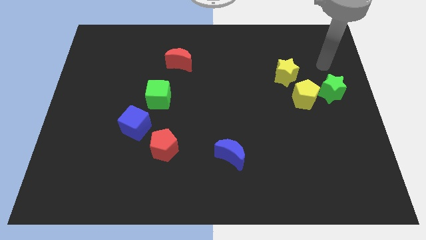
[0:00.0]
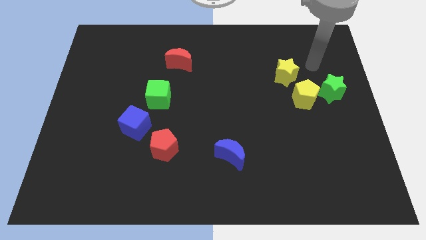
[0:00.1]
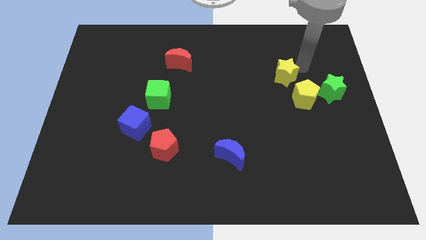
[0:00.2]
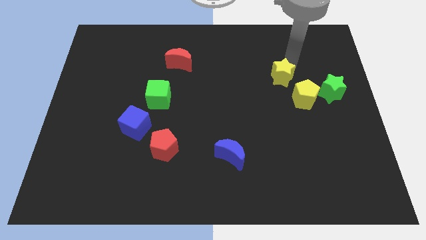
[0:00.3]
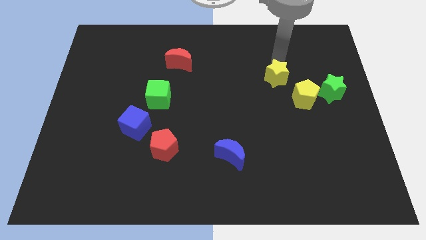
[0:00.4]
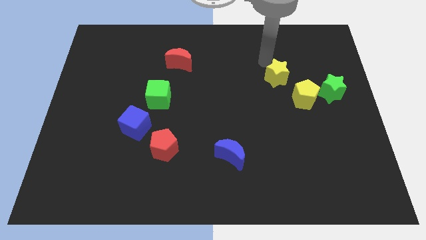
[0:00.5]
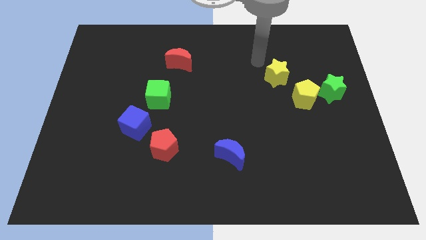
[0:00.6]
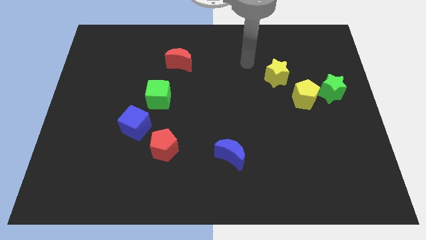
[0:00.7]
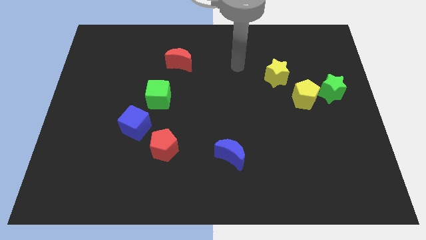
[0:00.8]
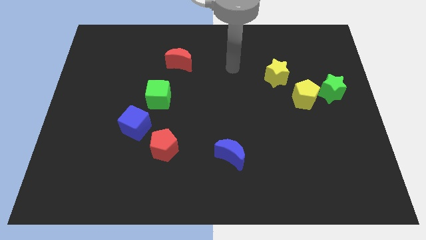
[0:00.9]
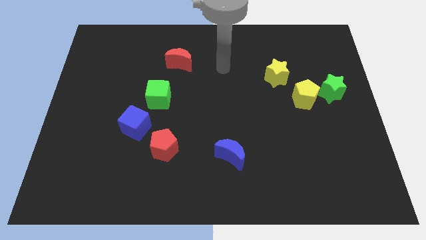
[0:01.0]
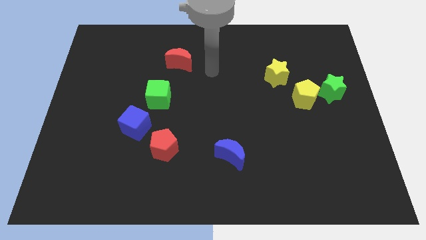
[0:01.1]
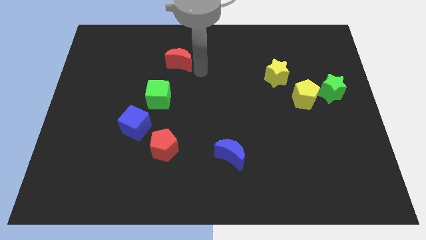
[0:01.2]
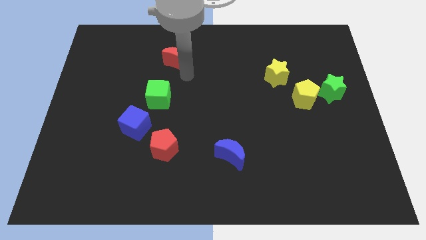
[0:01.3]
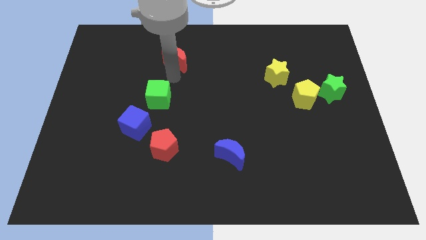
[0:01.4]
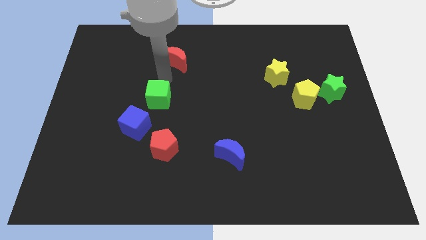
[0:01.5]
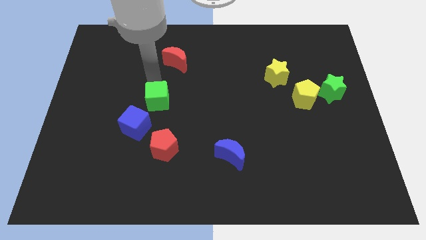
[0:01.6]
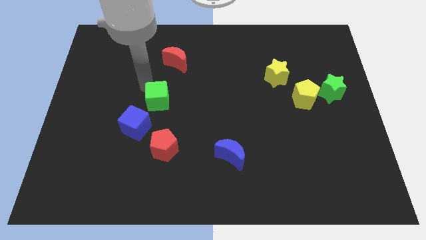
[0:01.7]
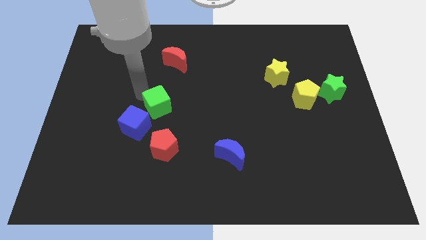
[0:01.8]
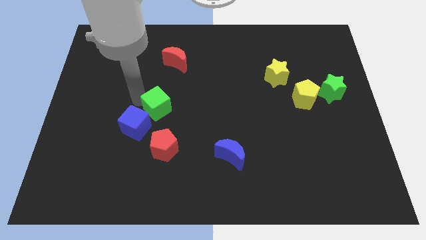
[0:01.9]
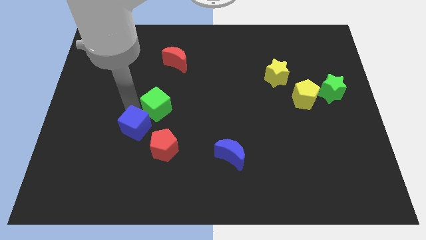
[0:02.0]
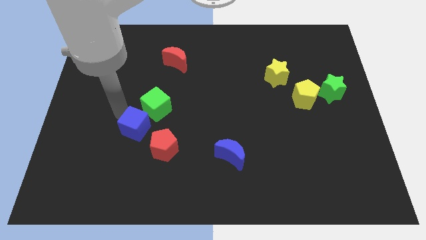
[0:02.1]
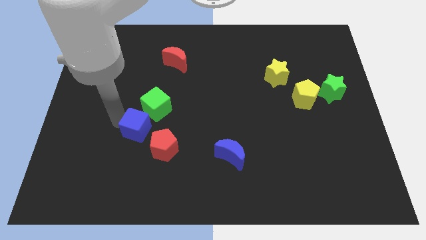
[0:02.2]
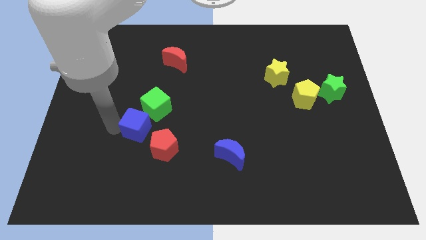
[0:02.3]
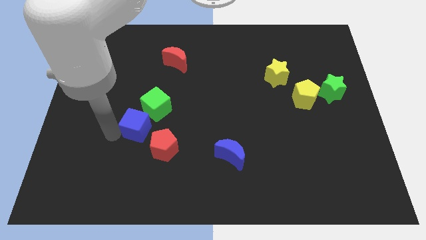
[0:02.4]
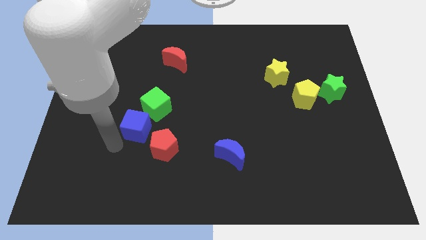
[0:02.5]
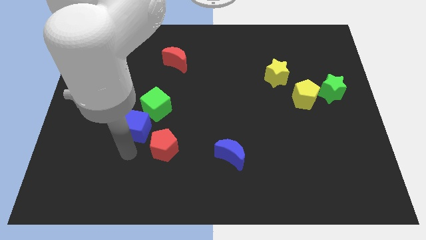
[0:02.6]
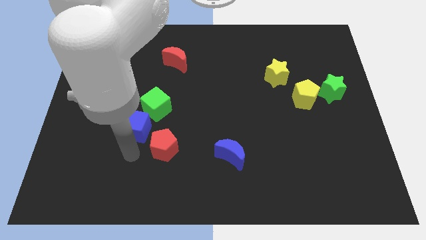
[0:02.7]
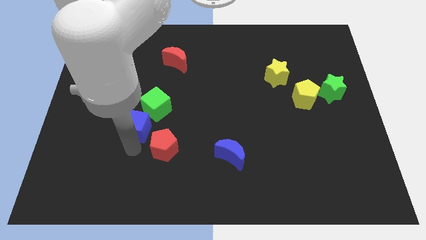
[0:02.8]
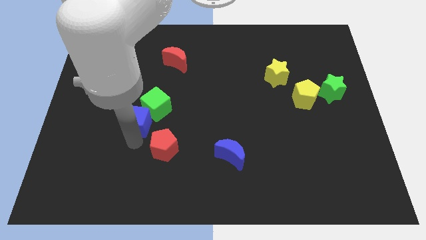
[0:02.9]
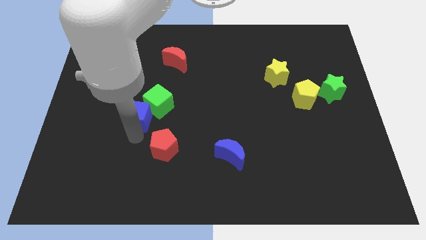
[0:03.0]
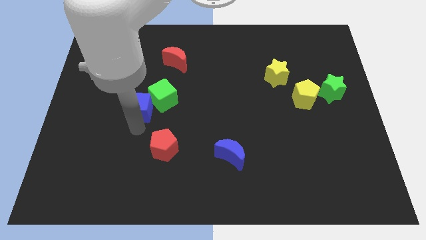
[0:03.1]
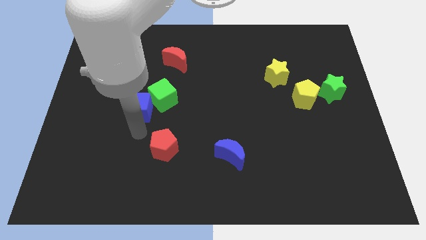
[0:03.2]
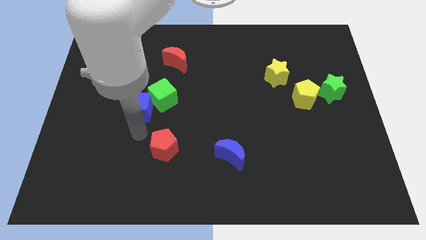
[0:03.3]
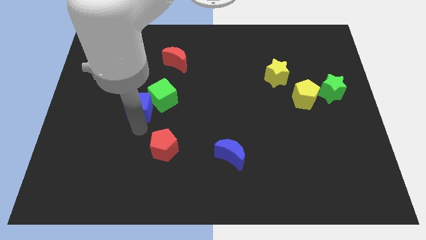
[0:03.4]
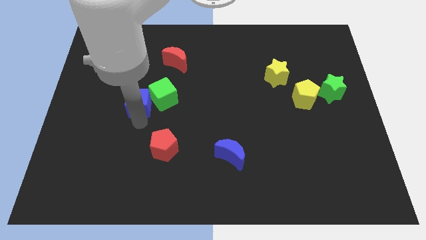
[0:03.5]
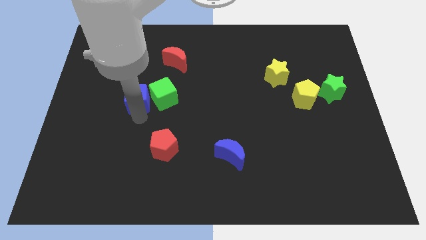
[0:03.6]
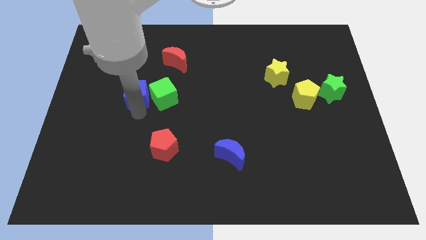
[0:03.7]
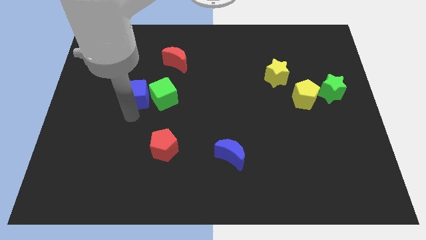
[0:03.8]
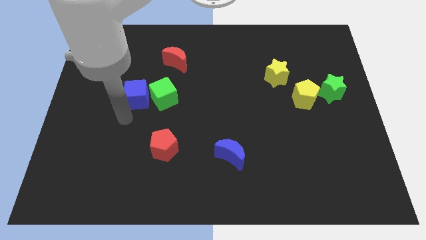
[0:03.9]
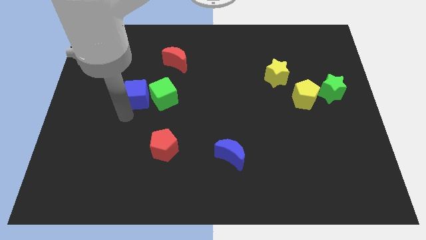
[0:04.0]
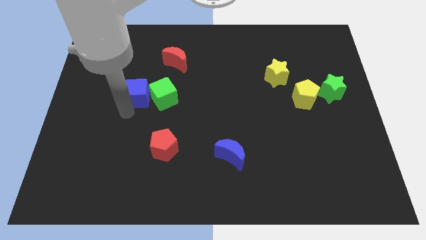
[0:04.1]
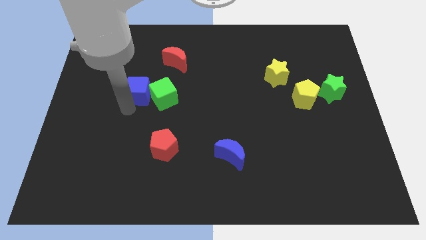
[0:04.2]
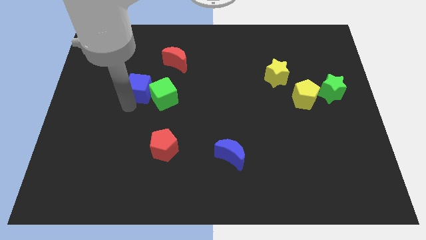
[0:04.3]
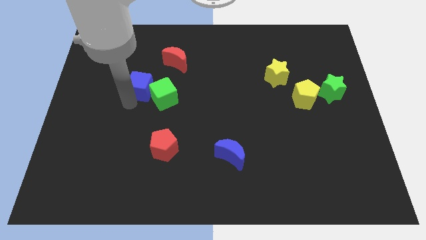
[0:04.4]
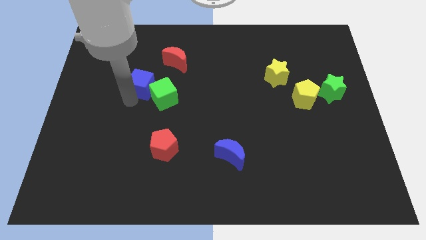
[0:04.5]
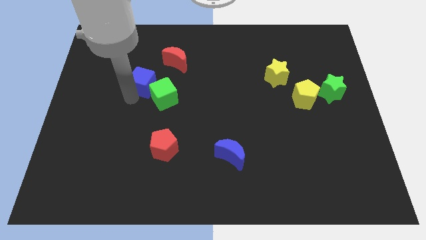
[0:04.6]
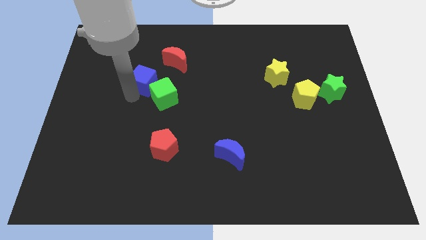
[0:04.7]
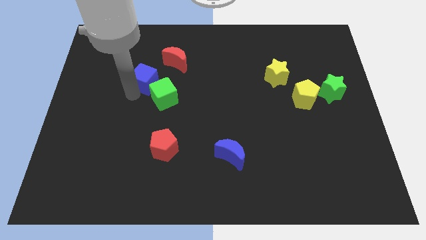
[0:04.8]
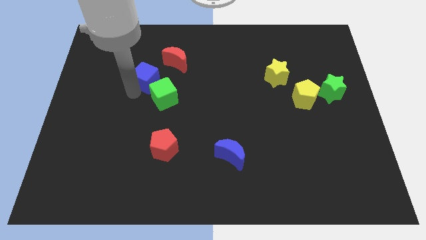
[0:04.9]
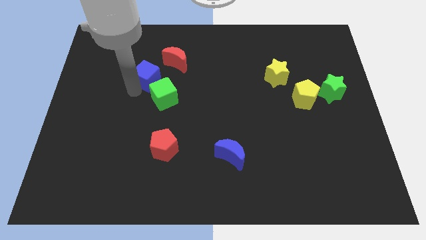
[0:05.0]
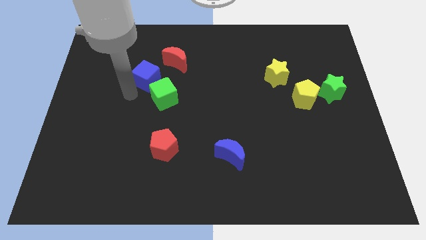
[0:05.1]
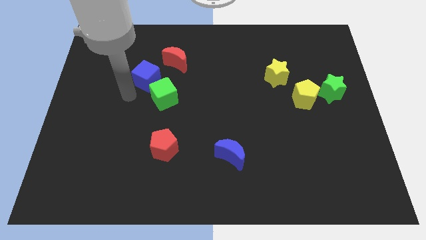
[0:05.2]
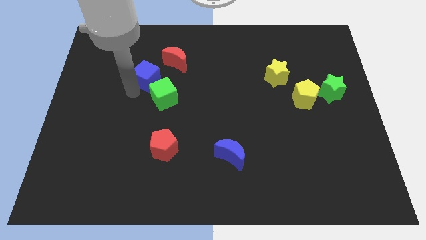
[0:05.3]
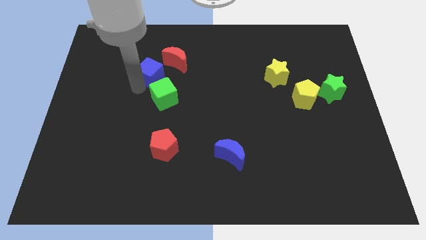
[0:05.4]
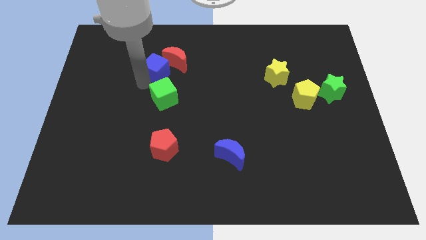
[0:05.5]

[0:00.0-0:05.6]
push the blue cube next to the red moon

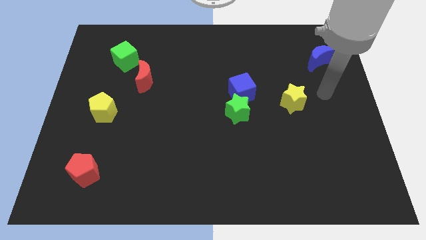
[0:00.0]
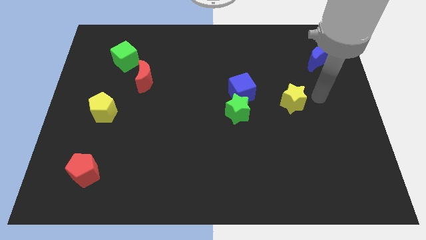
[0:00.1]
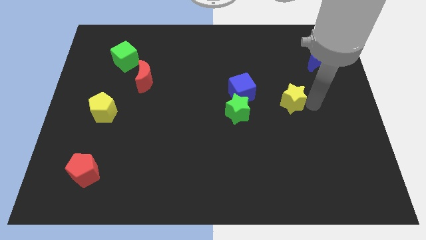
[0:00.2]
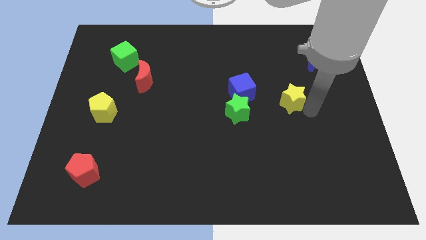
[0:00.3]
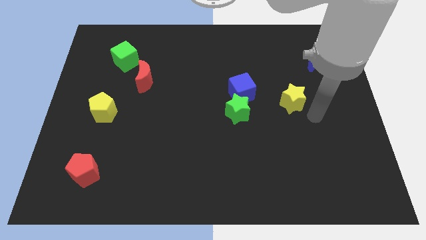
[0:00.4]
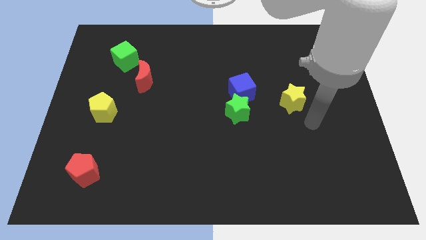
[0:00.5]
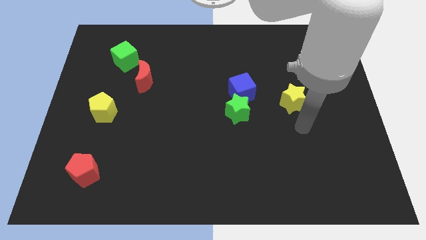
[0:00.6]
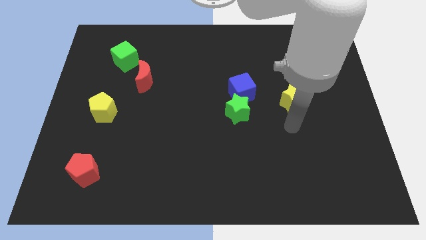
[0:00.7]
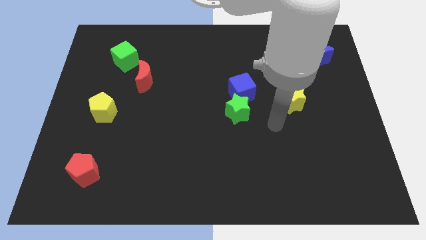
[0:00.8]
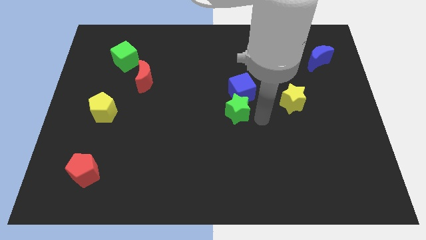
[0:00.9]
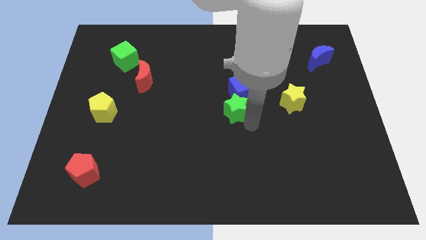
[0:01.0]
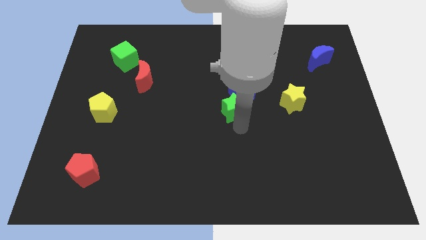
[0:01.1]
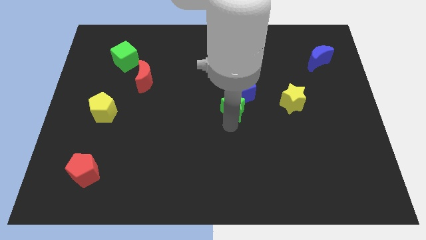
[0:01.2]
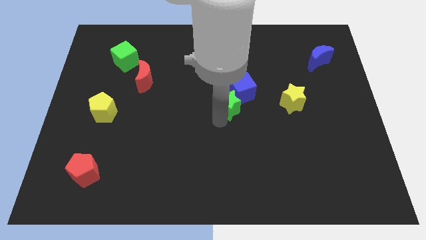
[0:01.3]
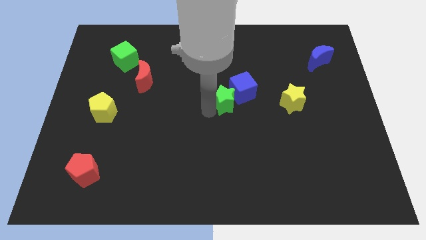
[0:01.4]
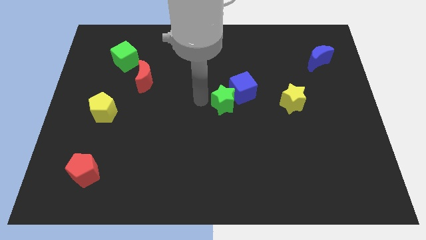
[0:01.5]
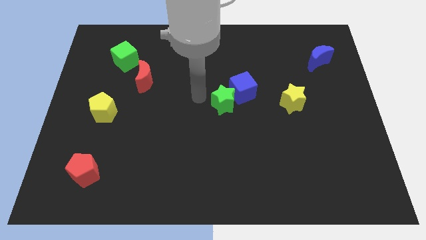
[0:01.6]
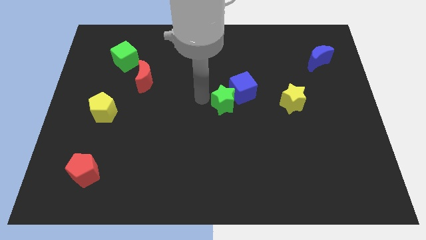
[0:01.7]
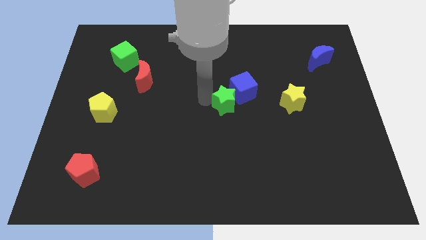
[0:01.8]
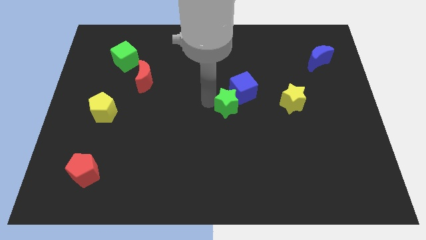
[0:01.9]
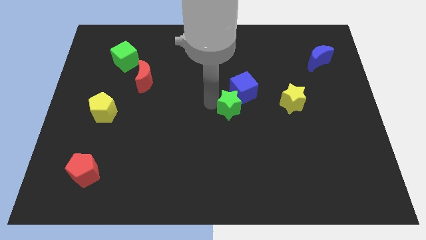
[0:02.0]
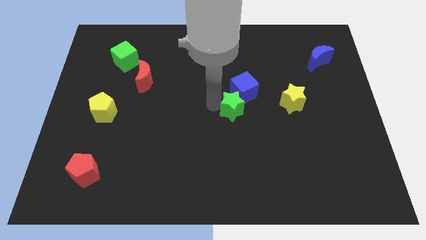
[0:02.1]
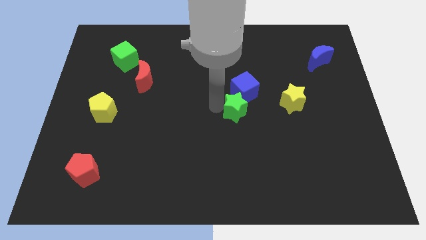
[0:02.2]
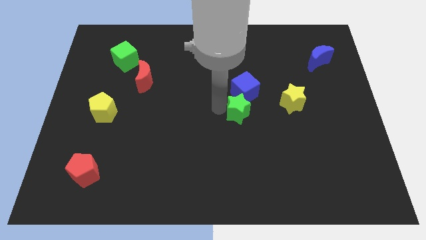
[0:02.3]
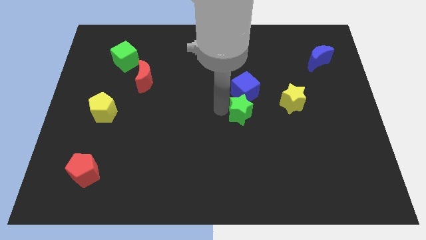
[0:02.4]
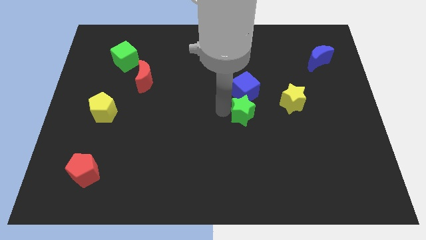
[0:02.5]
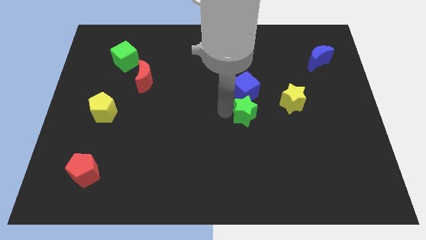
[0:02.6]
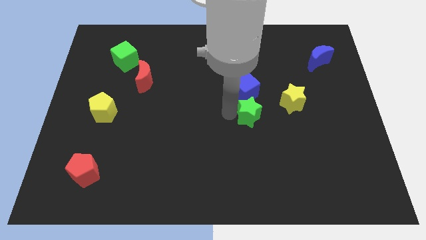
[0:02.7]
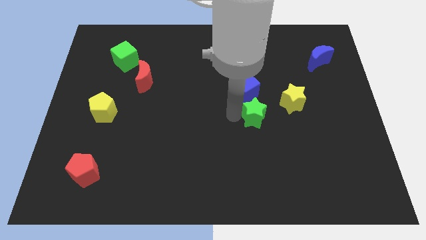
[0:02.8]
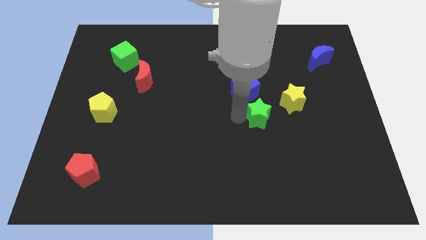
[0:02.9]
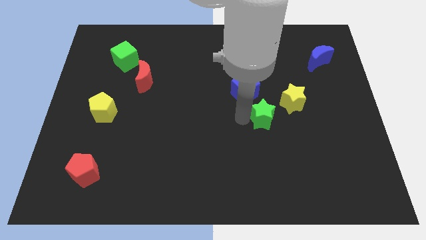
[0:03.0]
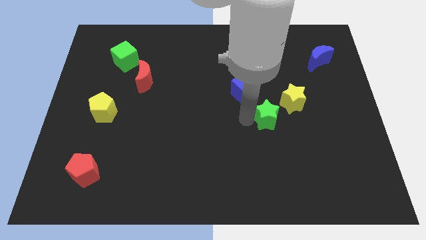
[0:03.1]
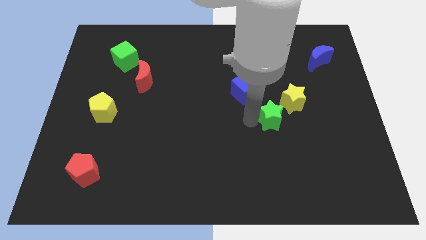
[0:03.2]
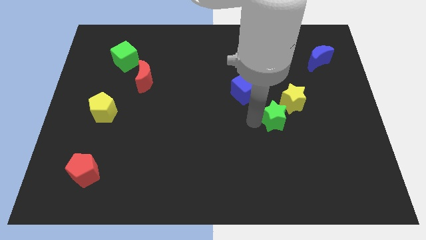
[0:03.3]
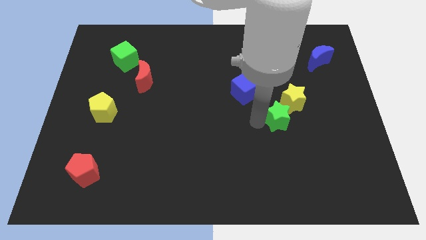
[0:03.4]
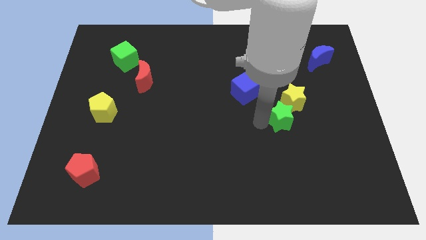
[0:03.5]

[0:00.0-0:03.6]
put the green star to the yellow star
